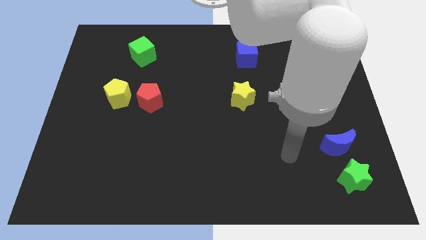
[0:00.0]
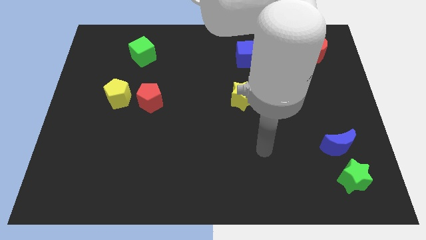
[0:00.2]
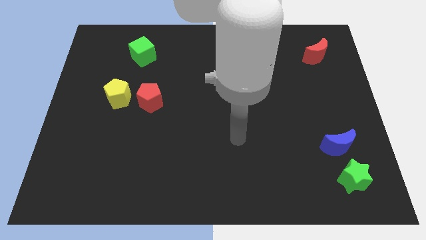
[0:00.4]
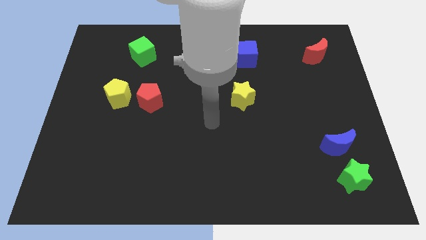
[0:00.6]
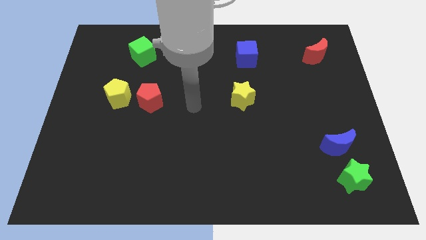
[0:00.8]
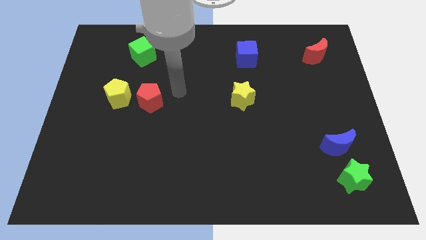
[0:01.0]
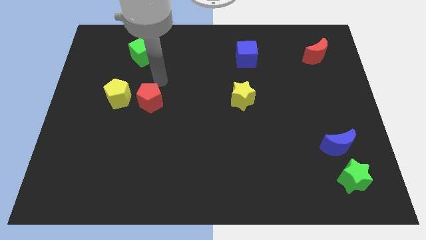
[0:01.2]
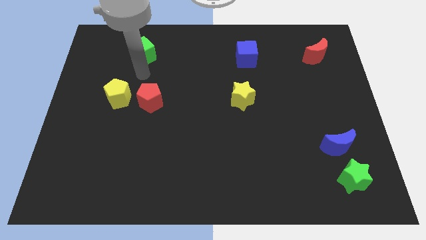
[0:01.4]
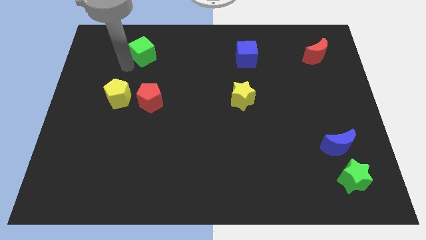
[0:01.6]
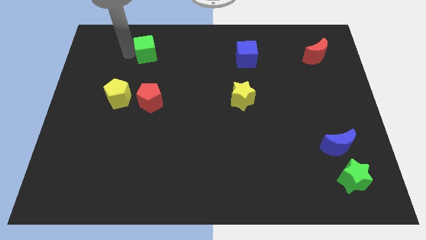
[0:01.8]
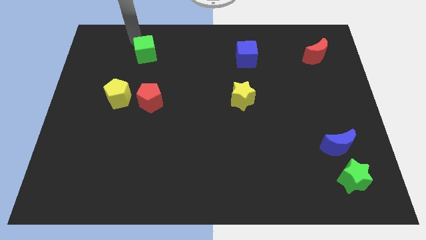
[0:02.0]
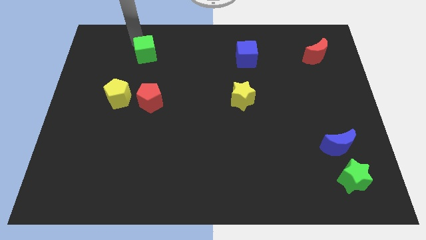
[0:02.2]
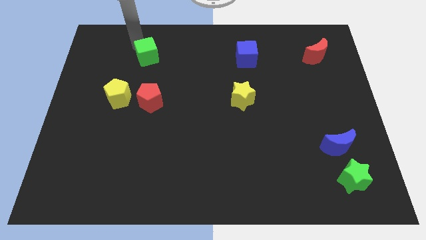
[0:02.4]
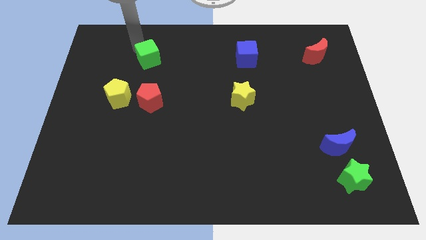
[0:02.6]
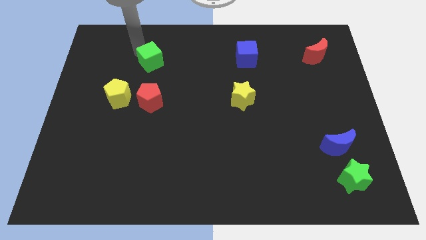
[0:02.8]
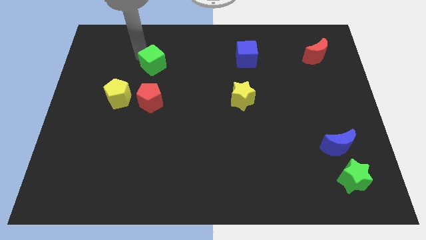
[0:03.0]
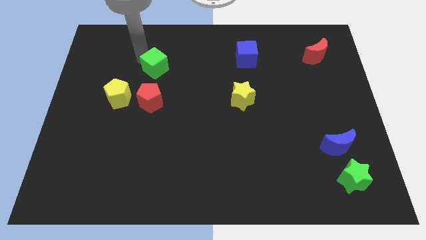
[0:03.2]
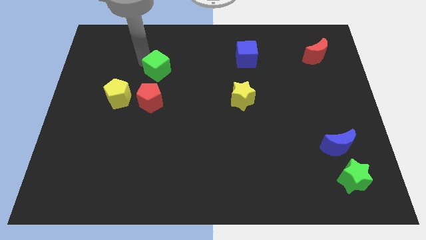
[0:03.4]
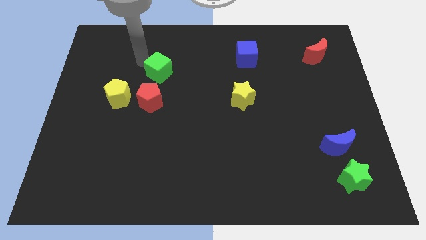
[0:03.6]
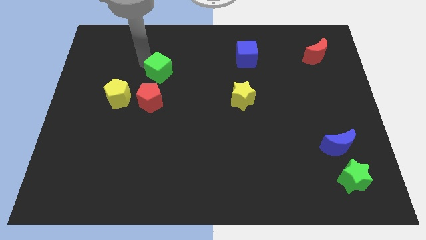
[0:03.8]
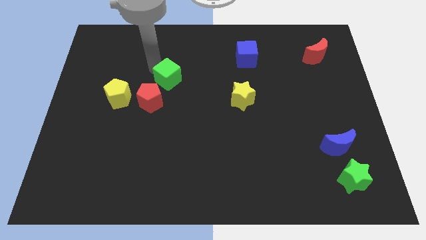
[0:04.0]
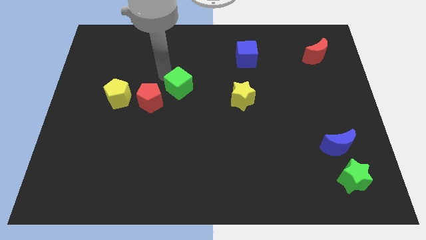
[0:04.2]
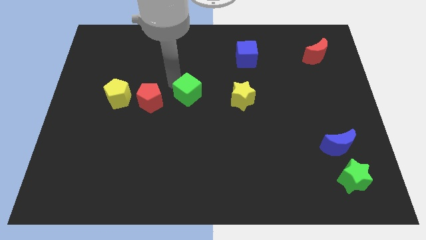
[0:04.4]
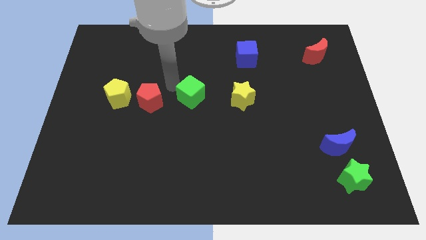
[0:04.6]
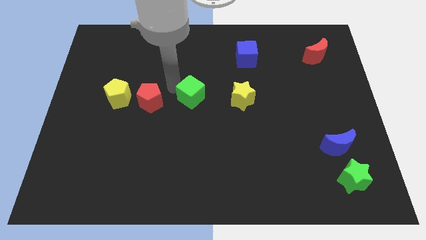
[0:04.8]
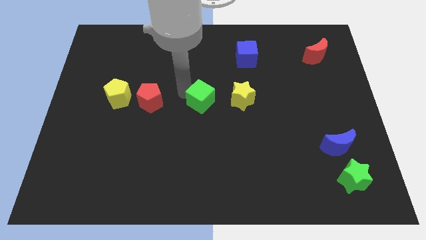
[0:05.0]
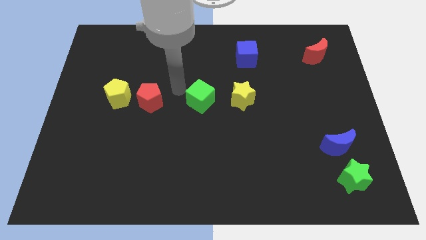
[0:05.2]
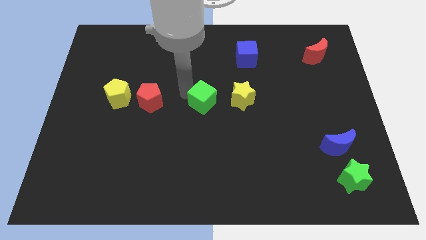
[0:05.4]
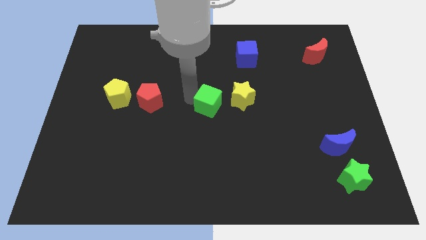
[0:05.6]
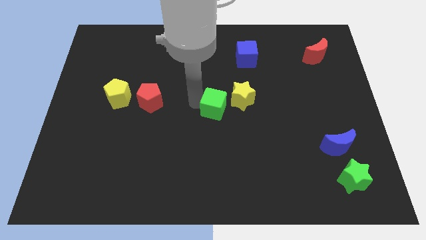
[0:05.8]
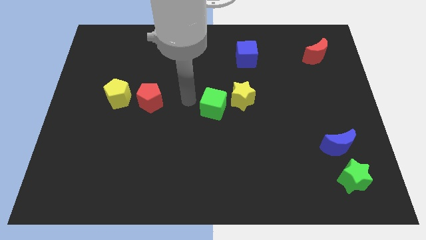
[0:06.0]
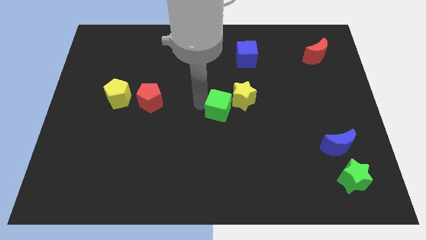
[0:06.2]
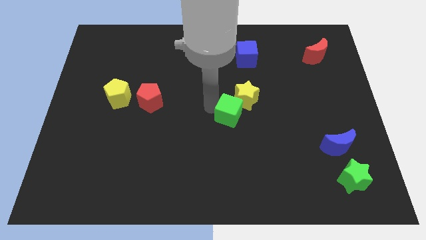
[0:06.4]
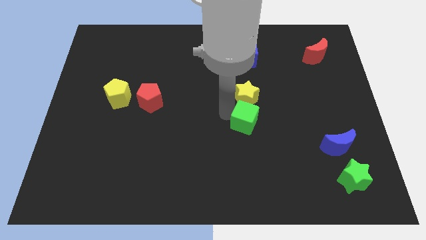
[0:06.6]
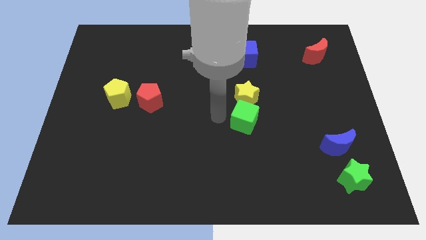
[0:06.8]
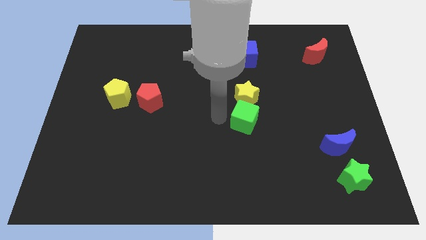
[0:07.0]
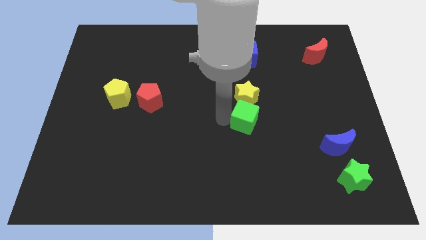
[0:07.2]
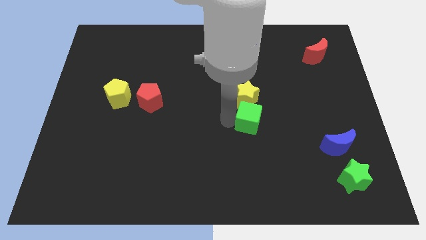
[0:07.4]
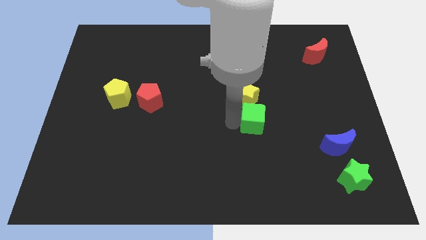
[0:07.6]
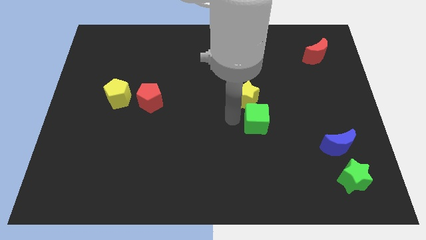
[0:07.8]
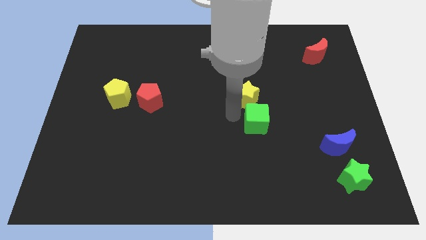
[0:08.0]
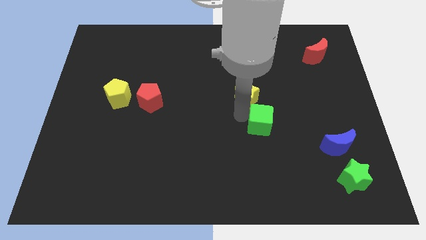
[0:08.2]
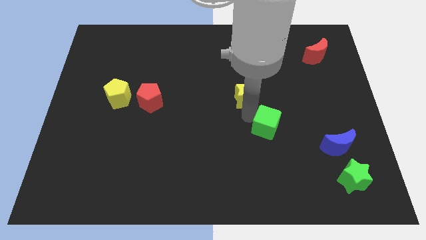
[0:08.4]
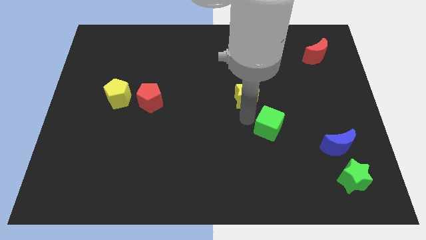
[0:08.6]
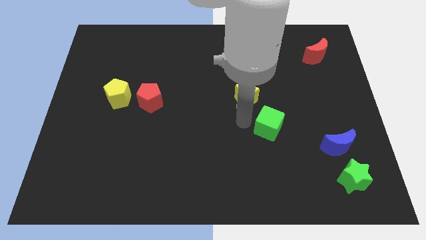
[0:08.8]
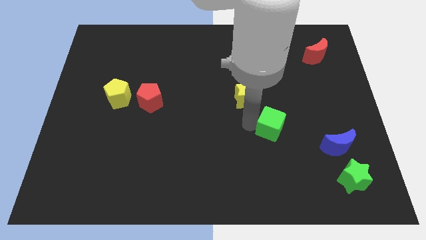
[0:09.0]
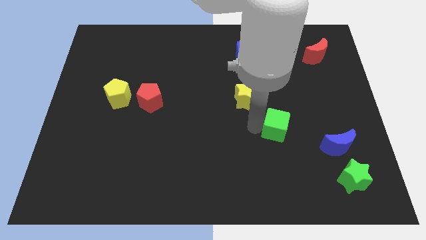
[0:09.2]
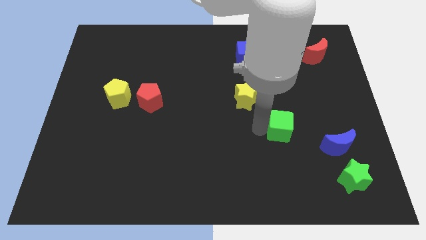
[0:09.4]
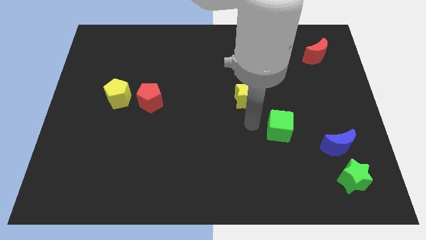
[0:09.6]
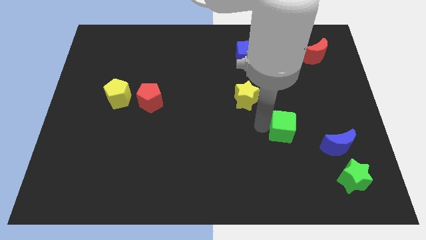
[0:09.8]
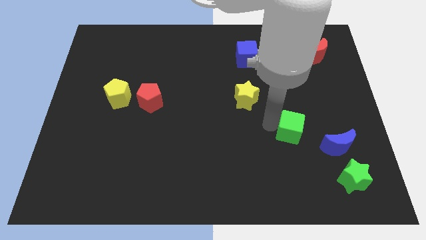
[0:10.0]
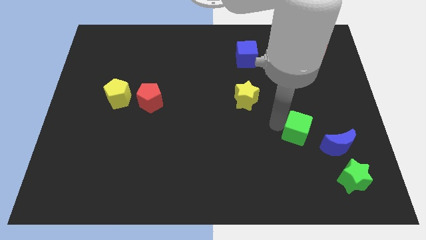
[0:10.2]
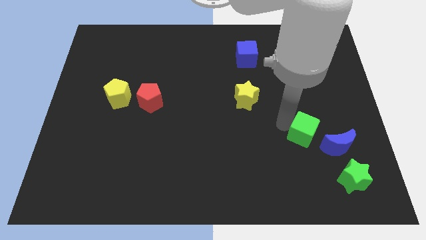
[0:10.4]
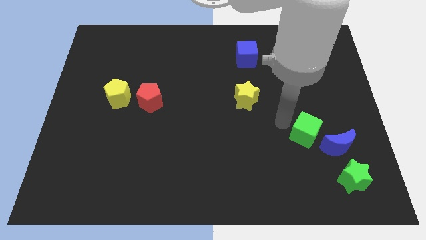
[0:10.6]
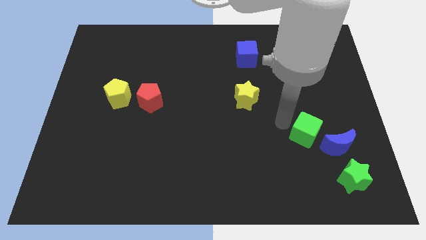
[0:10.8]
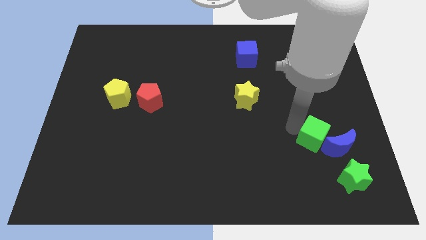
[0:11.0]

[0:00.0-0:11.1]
put the green cube close to the blue moon

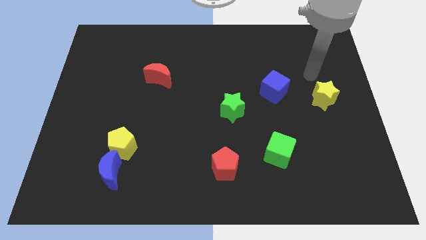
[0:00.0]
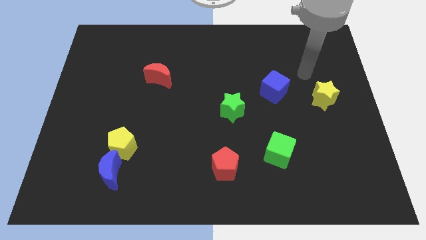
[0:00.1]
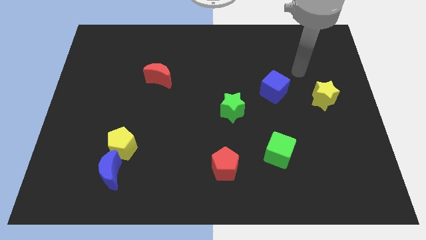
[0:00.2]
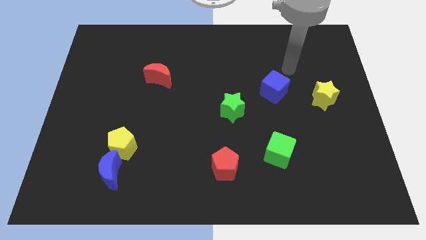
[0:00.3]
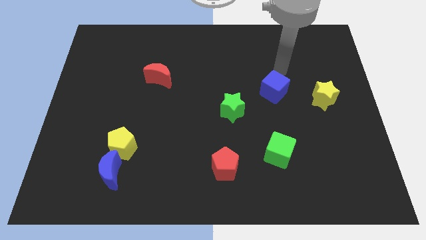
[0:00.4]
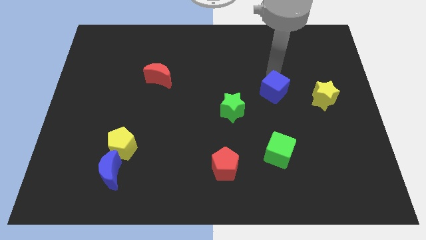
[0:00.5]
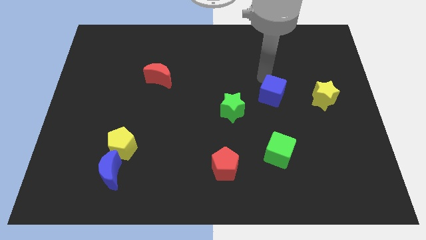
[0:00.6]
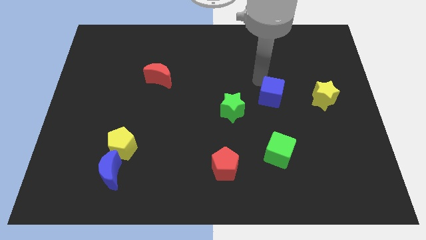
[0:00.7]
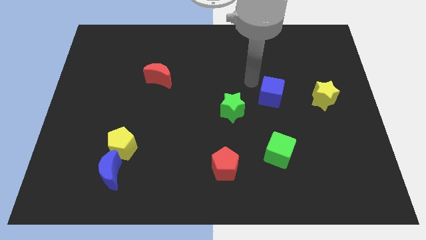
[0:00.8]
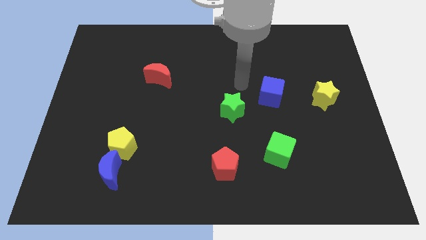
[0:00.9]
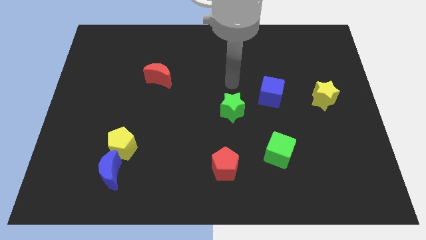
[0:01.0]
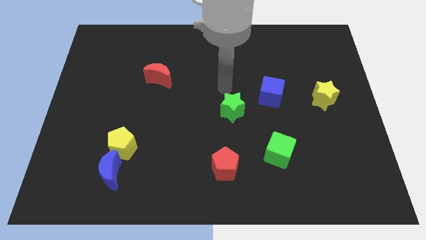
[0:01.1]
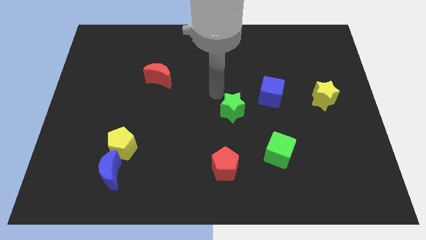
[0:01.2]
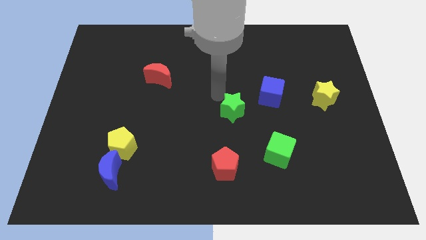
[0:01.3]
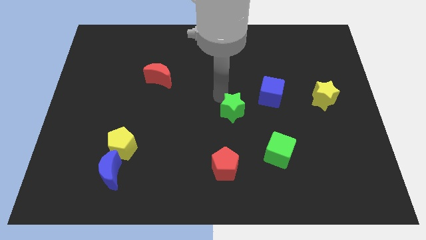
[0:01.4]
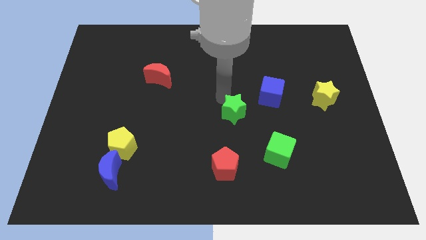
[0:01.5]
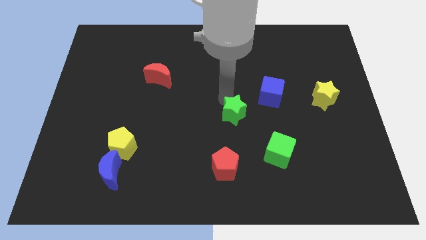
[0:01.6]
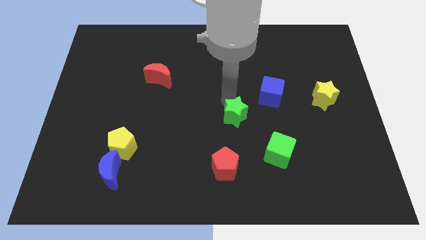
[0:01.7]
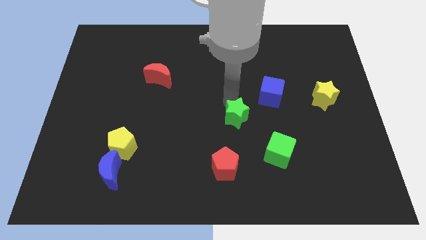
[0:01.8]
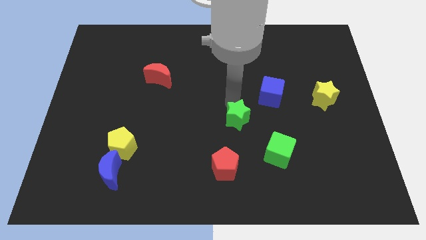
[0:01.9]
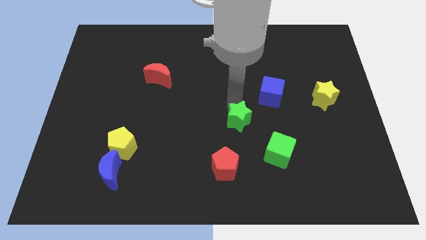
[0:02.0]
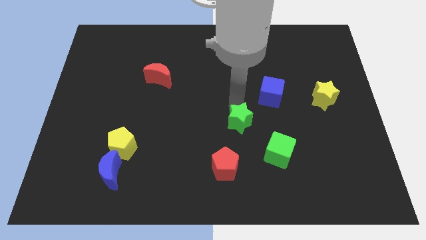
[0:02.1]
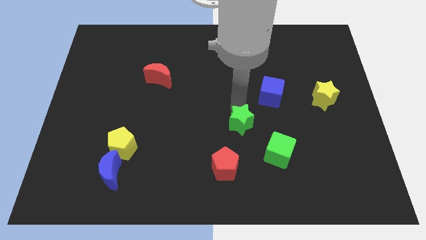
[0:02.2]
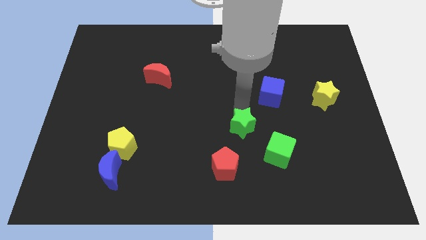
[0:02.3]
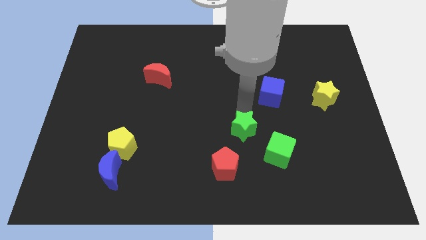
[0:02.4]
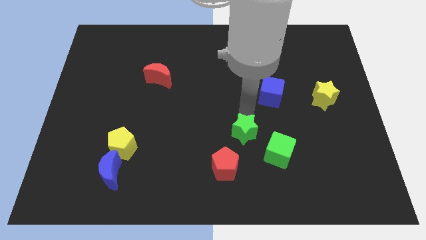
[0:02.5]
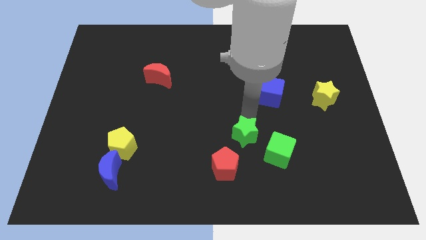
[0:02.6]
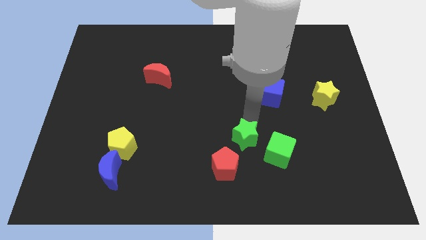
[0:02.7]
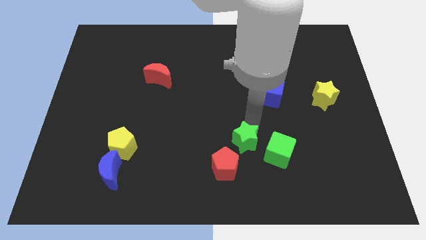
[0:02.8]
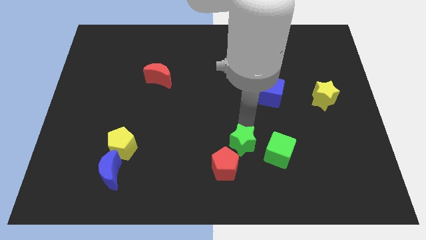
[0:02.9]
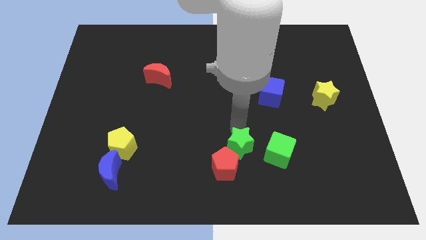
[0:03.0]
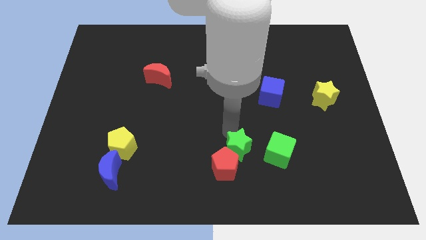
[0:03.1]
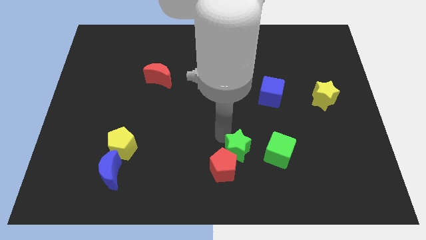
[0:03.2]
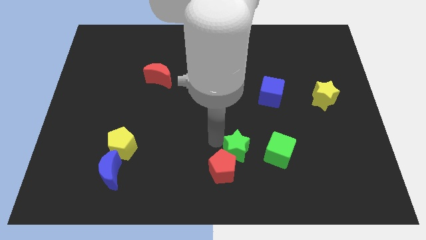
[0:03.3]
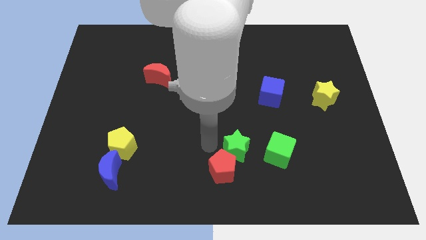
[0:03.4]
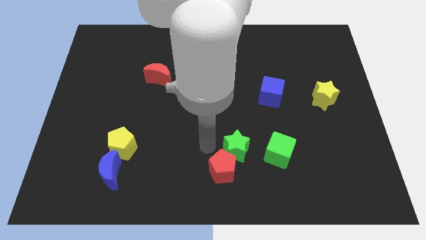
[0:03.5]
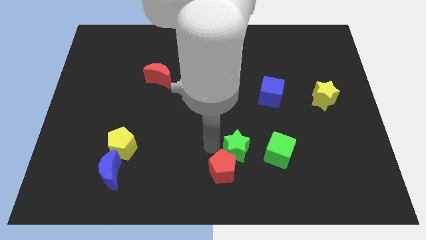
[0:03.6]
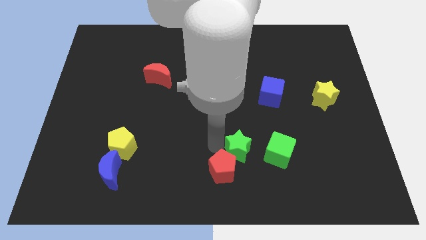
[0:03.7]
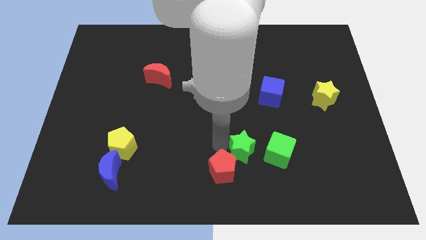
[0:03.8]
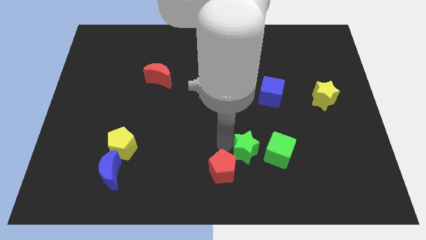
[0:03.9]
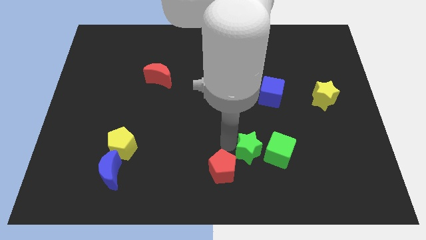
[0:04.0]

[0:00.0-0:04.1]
move the green star towards the green cube
